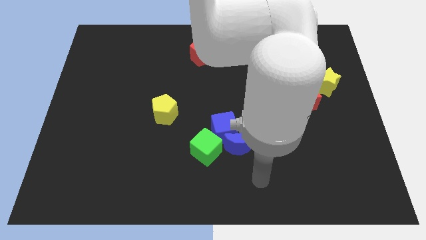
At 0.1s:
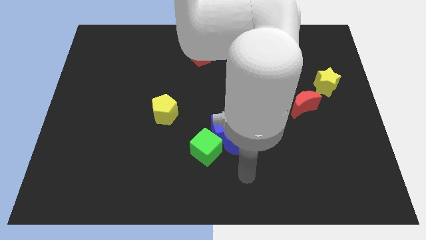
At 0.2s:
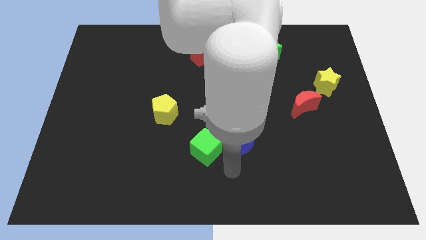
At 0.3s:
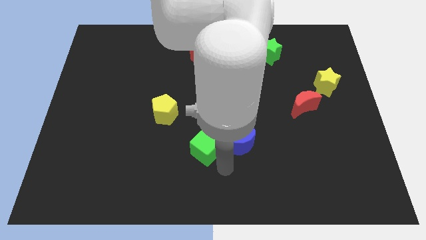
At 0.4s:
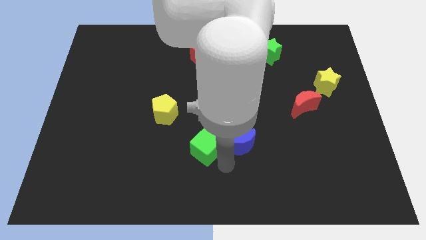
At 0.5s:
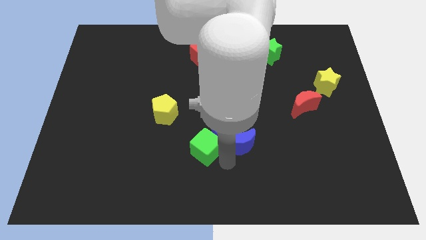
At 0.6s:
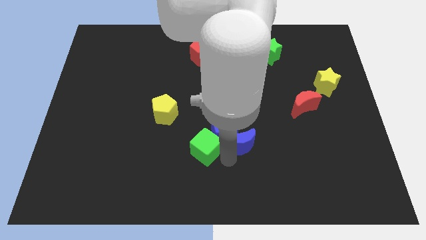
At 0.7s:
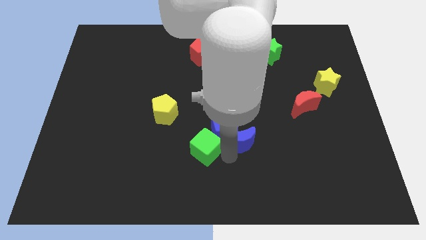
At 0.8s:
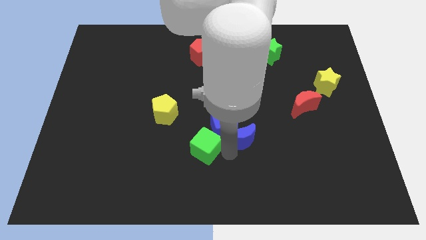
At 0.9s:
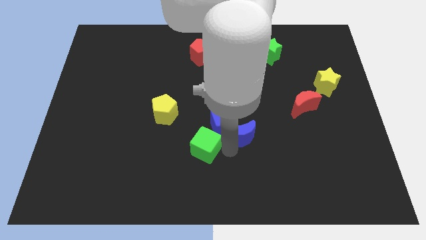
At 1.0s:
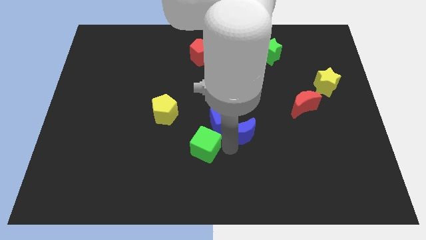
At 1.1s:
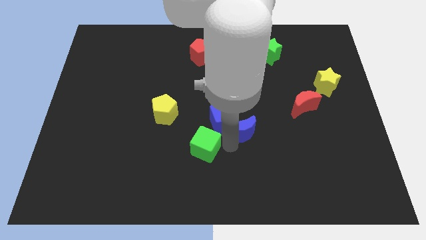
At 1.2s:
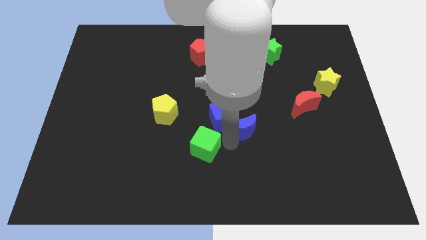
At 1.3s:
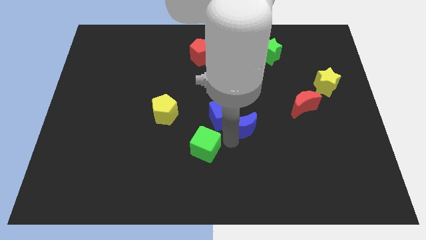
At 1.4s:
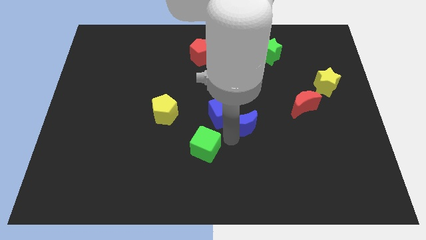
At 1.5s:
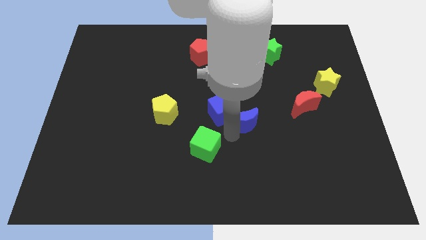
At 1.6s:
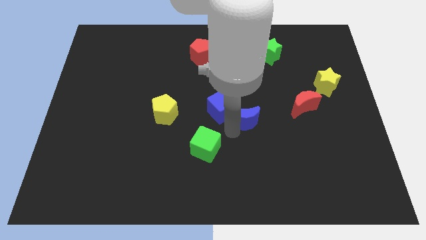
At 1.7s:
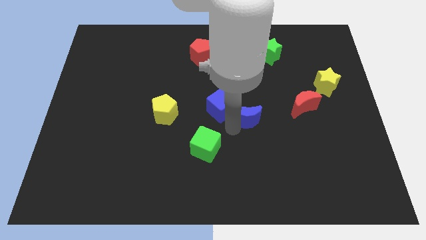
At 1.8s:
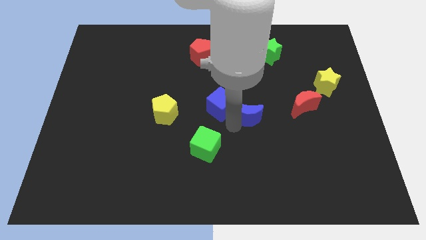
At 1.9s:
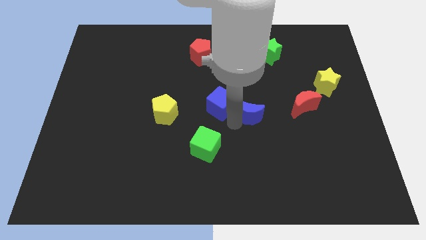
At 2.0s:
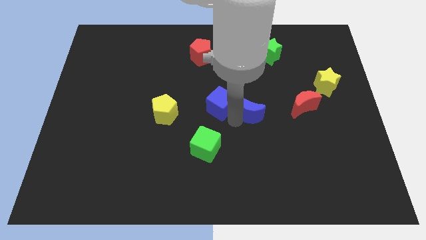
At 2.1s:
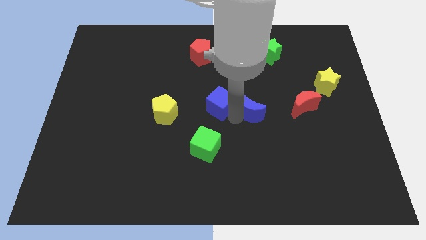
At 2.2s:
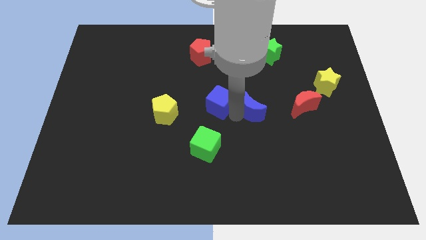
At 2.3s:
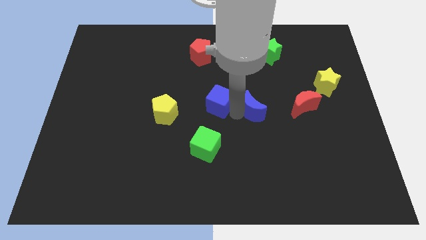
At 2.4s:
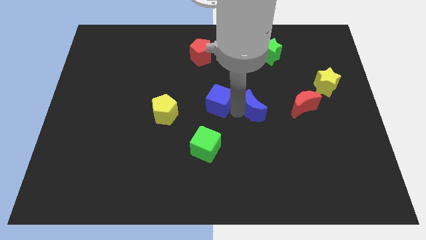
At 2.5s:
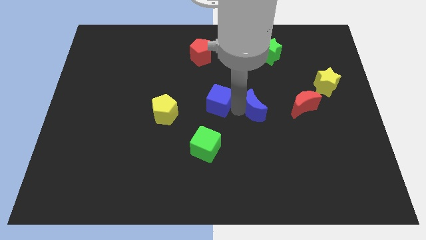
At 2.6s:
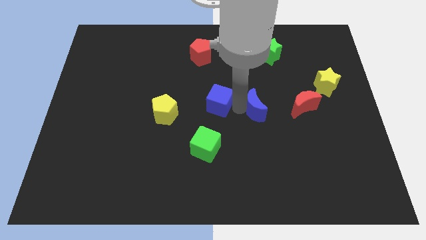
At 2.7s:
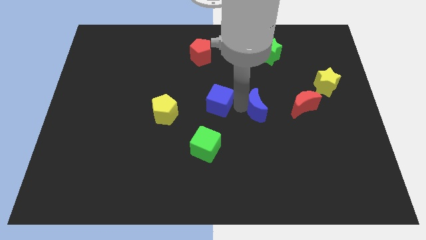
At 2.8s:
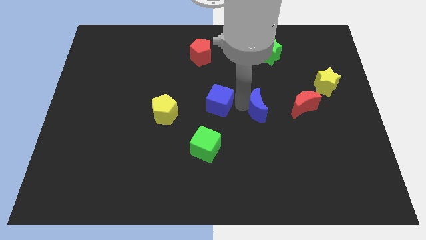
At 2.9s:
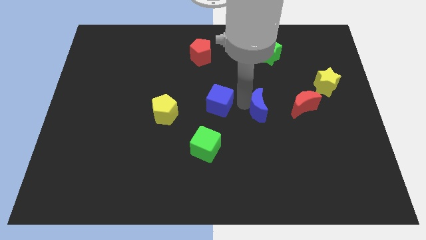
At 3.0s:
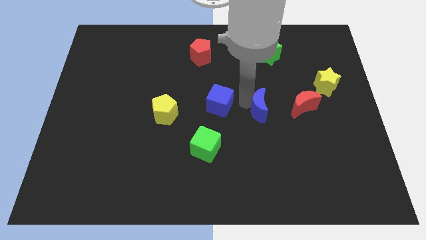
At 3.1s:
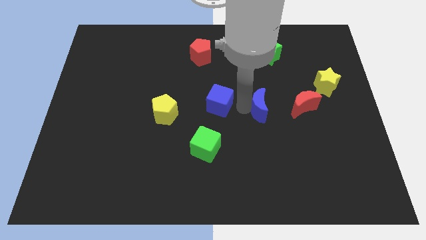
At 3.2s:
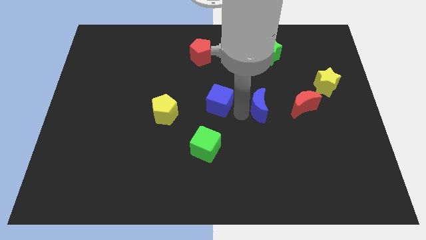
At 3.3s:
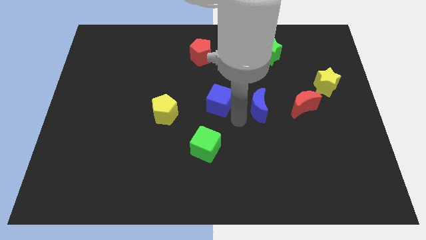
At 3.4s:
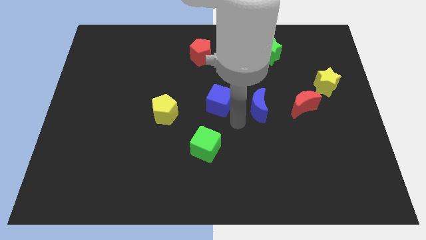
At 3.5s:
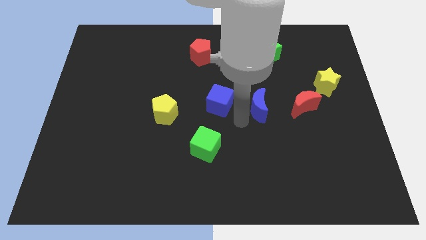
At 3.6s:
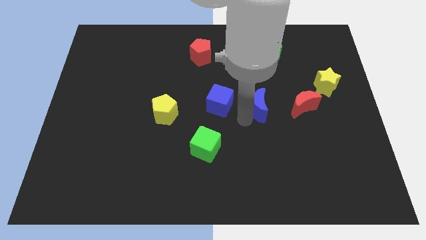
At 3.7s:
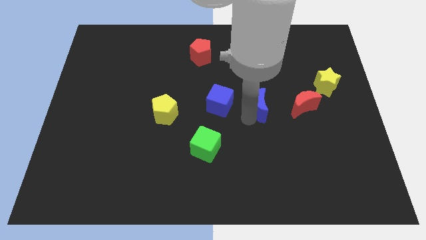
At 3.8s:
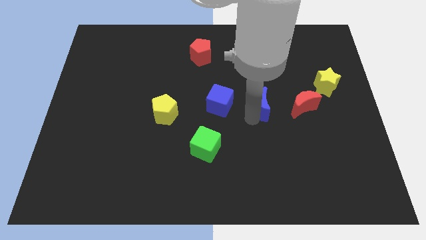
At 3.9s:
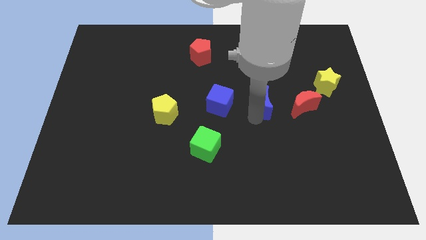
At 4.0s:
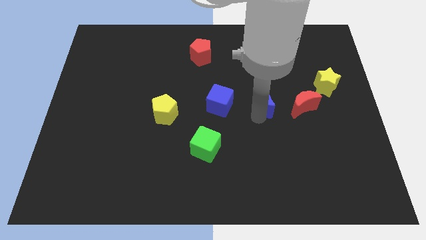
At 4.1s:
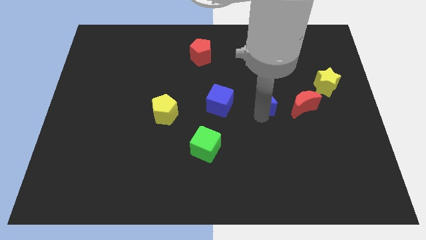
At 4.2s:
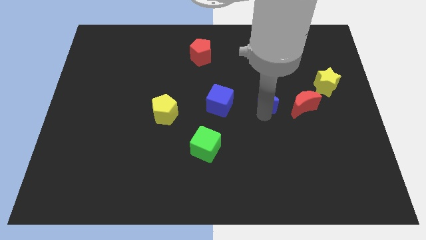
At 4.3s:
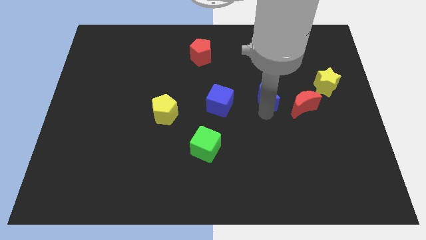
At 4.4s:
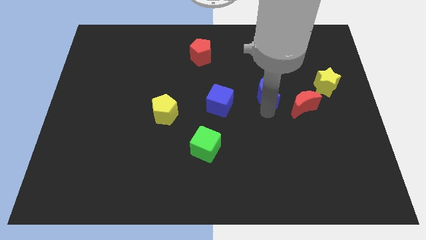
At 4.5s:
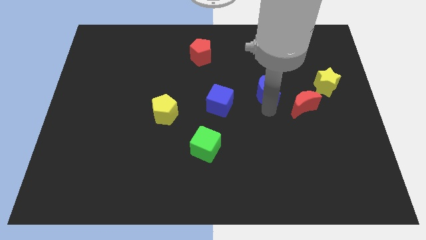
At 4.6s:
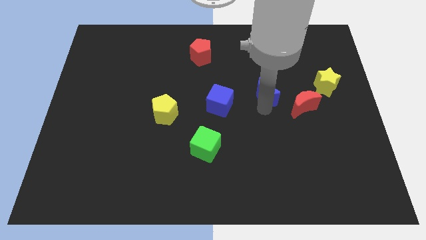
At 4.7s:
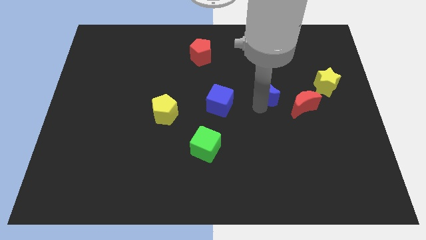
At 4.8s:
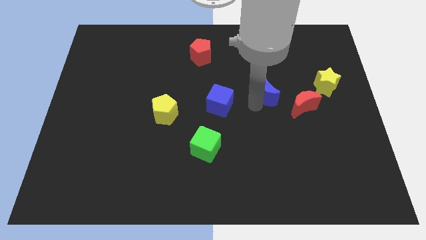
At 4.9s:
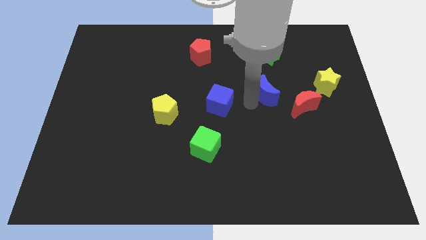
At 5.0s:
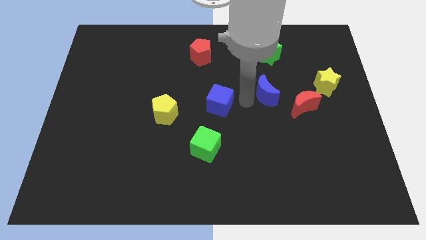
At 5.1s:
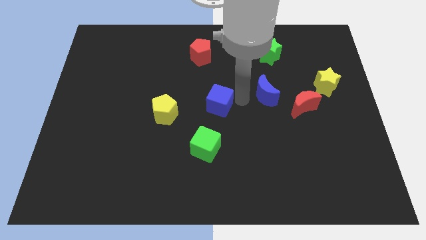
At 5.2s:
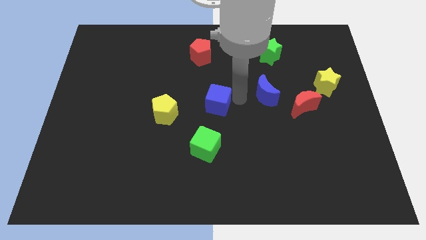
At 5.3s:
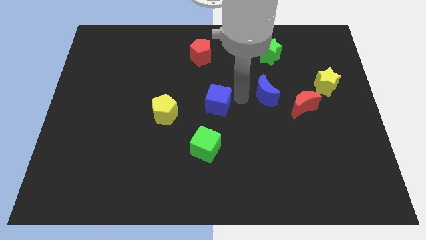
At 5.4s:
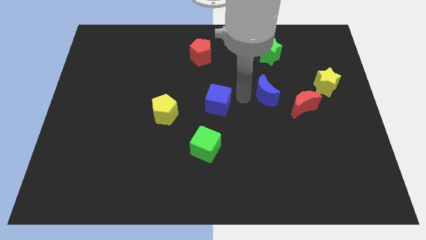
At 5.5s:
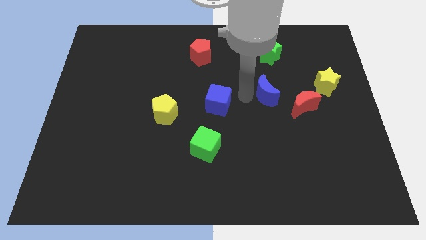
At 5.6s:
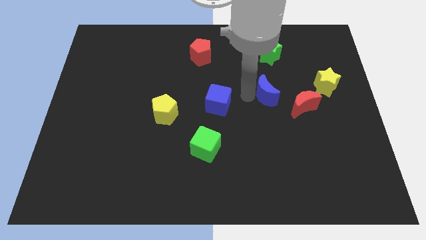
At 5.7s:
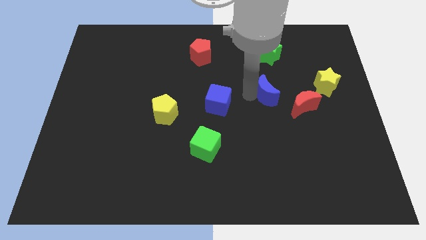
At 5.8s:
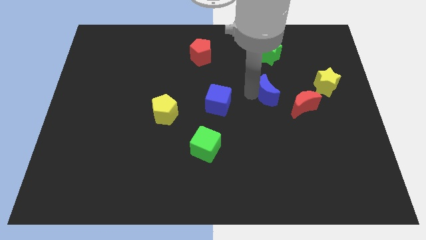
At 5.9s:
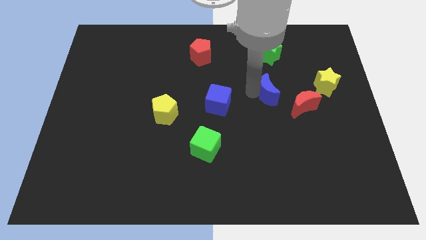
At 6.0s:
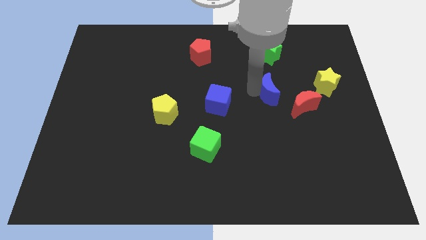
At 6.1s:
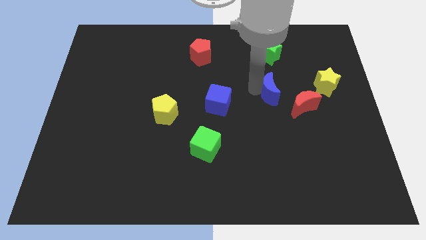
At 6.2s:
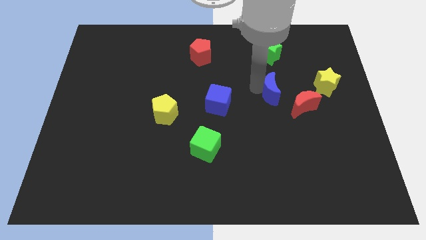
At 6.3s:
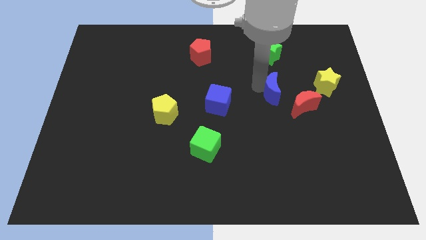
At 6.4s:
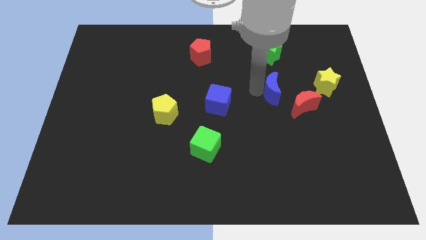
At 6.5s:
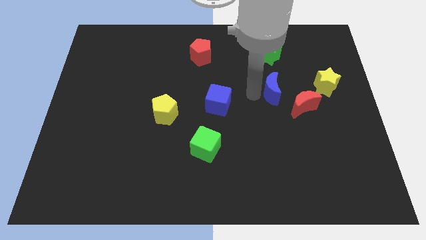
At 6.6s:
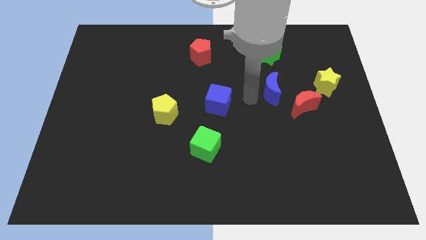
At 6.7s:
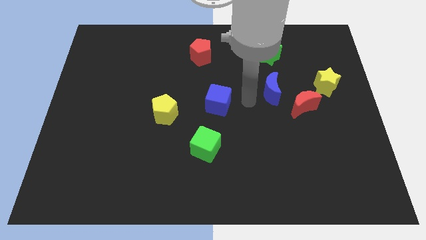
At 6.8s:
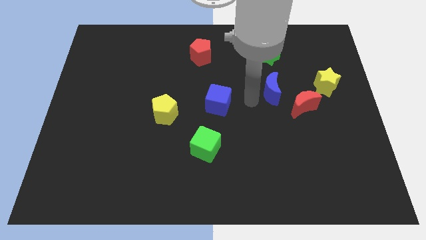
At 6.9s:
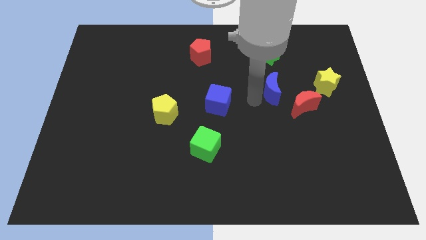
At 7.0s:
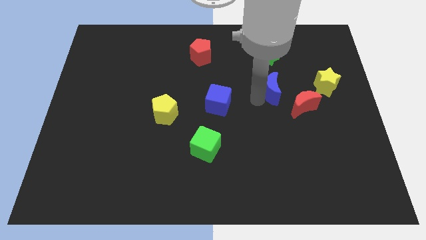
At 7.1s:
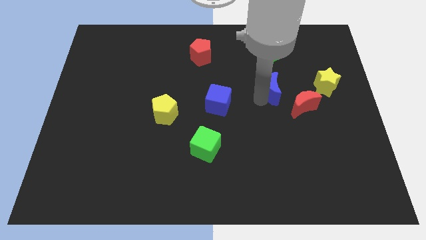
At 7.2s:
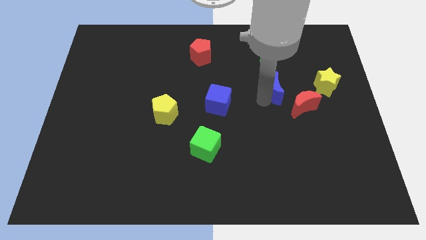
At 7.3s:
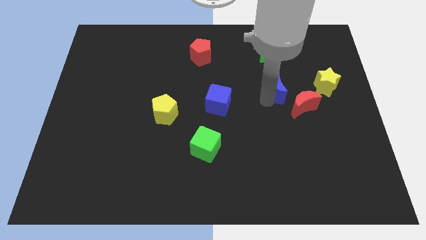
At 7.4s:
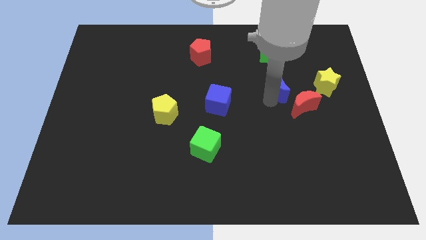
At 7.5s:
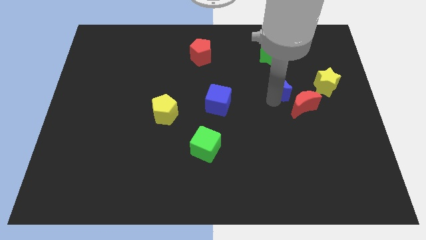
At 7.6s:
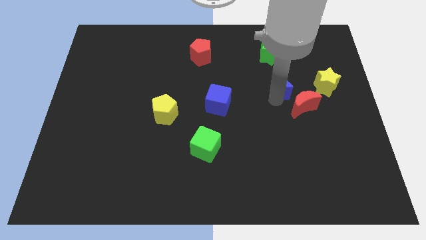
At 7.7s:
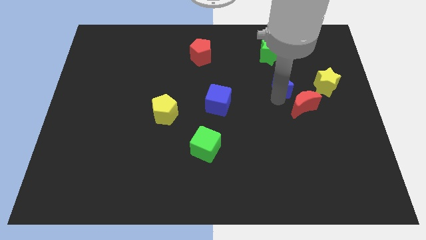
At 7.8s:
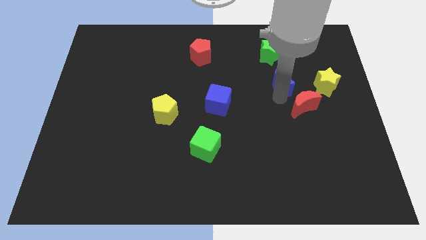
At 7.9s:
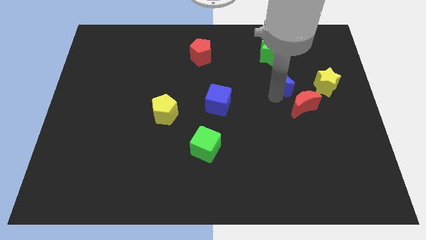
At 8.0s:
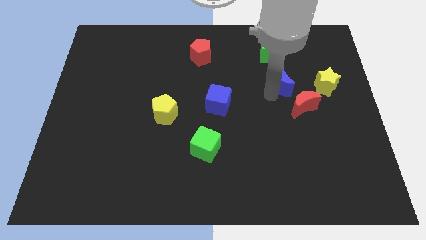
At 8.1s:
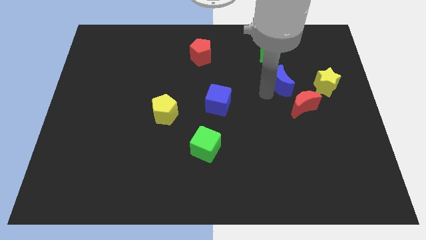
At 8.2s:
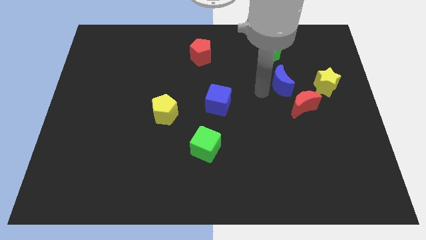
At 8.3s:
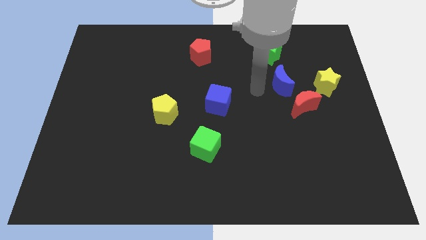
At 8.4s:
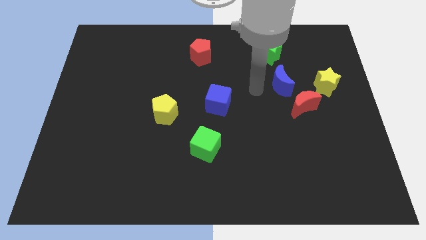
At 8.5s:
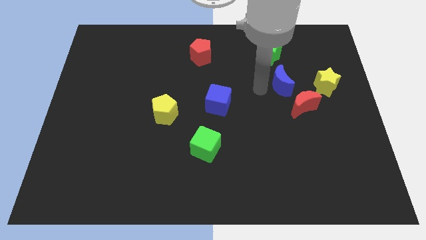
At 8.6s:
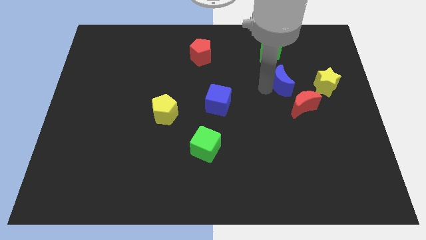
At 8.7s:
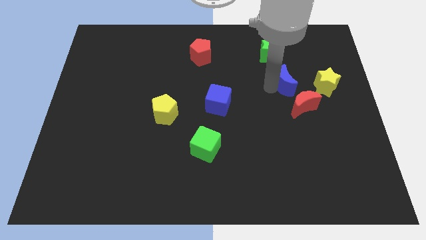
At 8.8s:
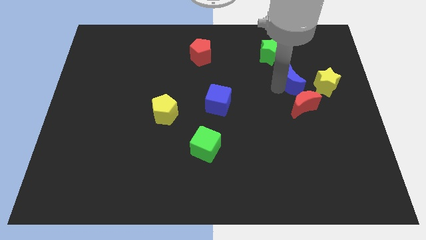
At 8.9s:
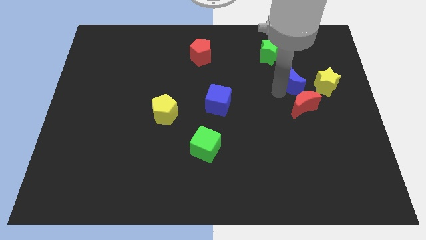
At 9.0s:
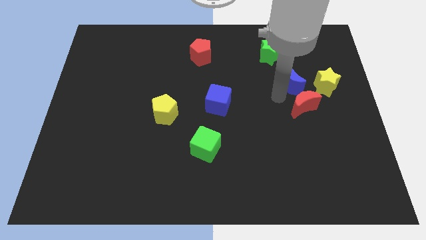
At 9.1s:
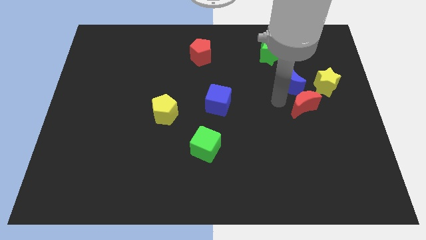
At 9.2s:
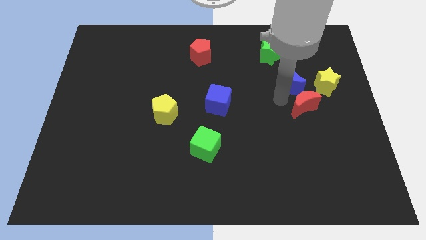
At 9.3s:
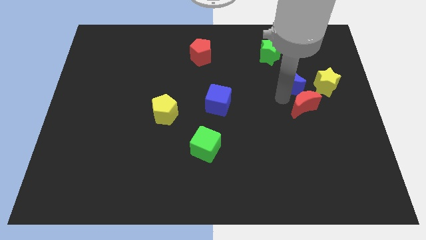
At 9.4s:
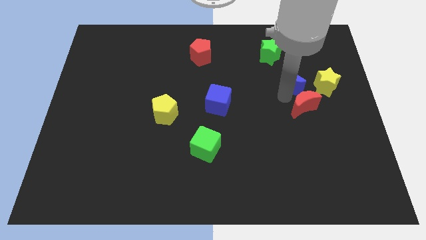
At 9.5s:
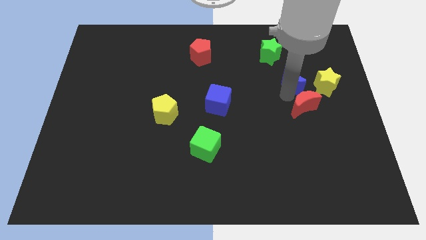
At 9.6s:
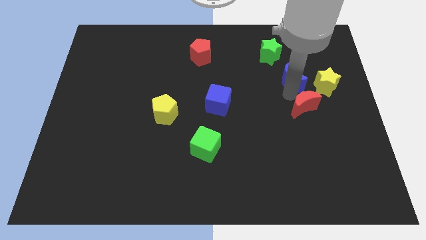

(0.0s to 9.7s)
move the blue moon to the top left of the yellow star
